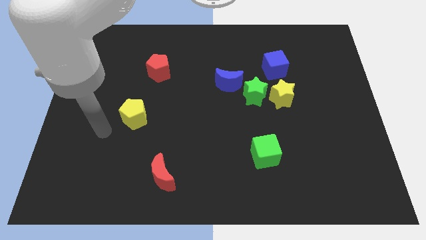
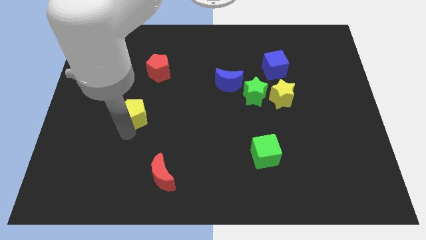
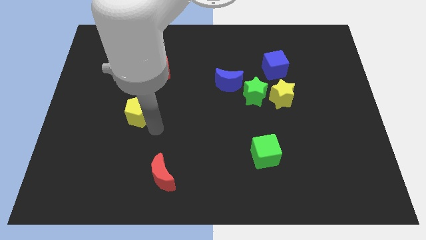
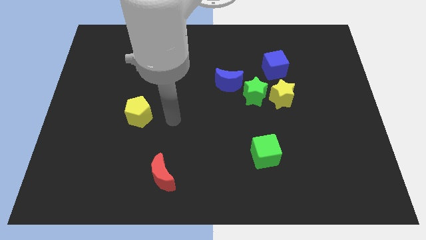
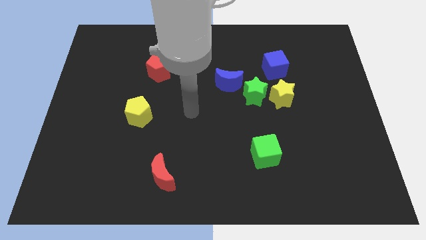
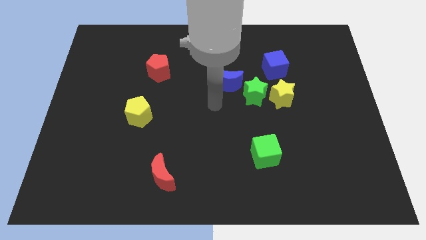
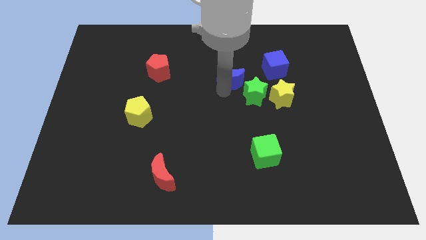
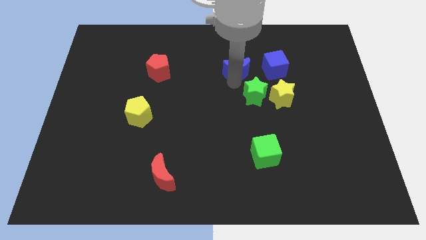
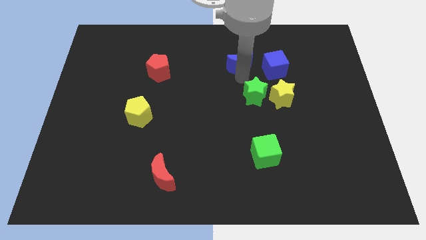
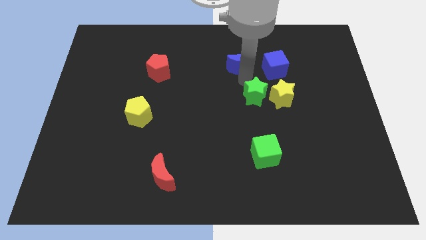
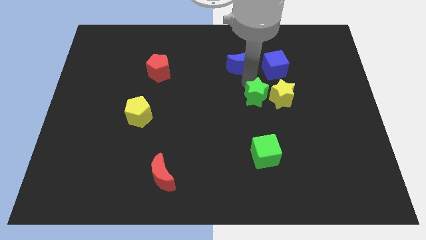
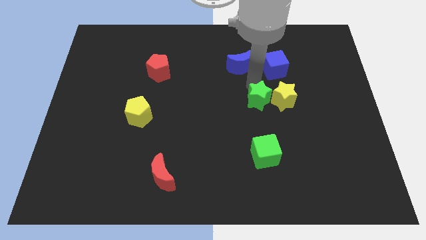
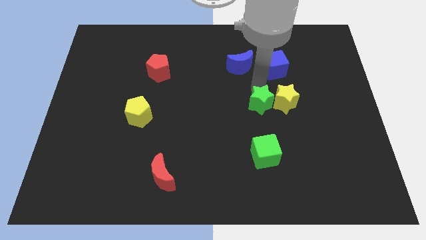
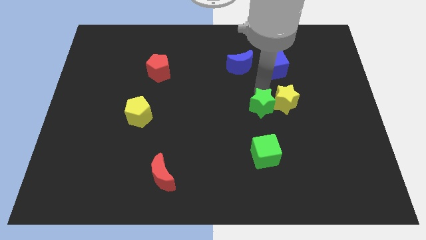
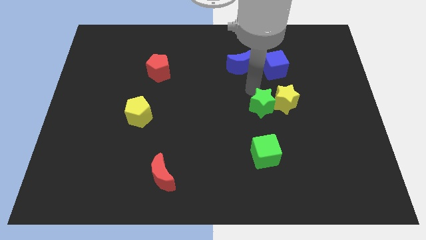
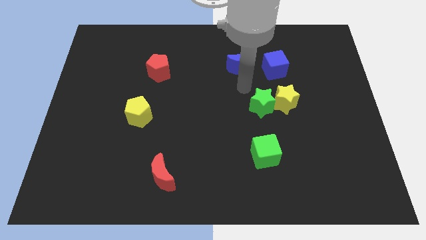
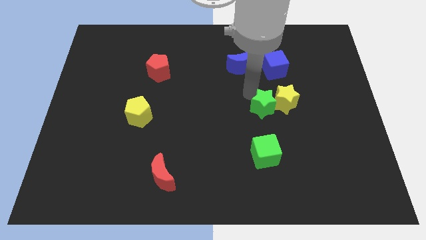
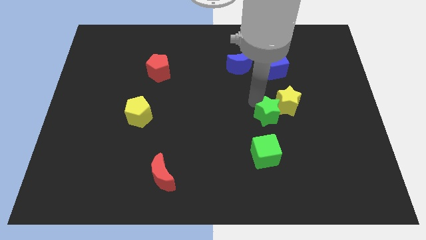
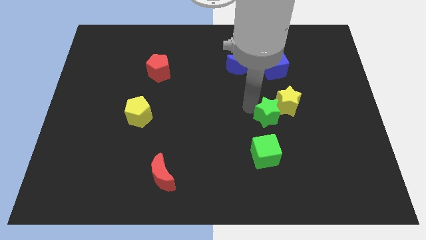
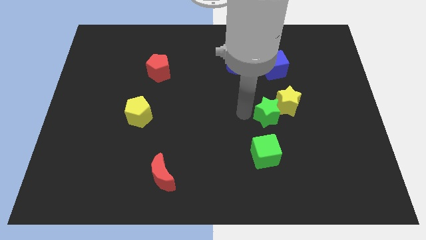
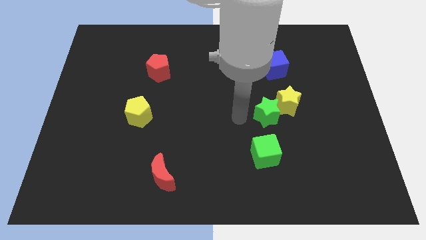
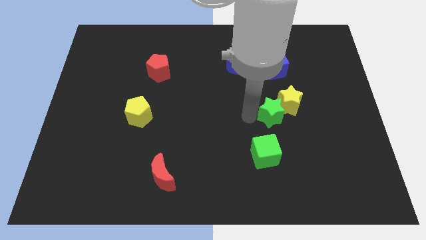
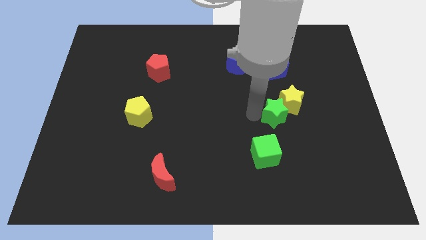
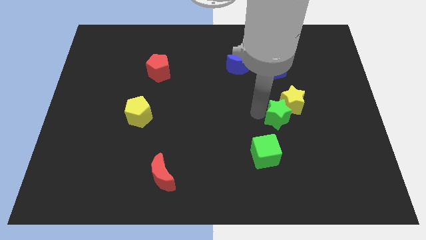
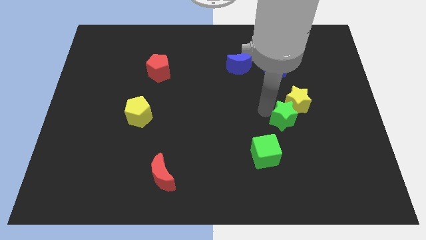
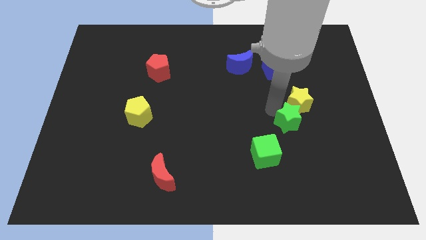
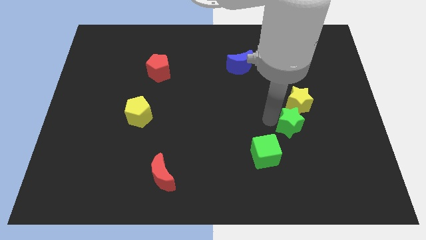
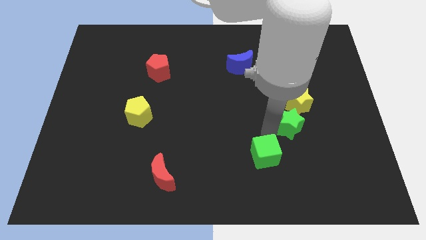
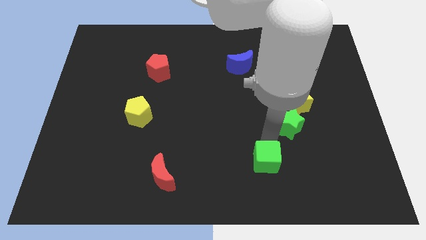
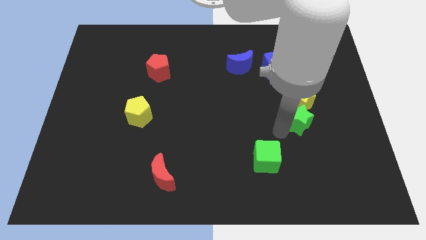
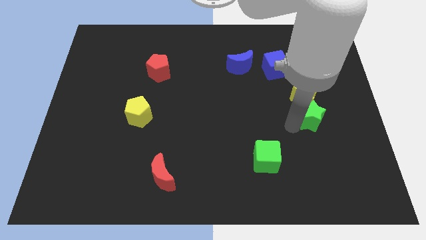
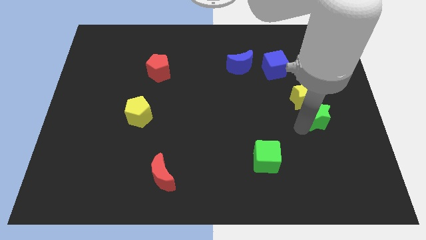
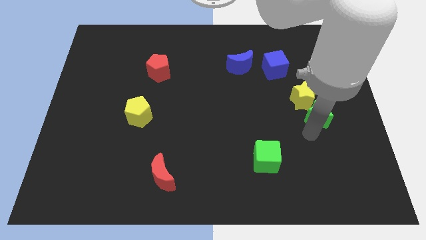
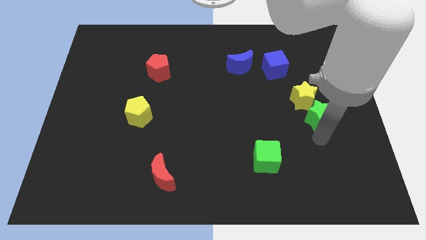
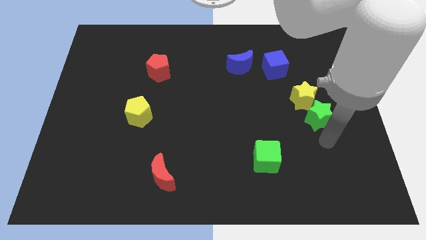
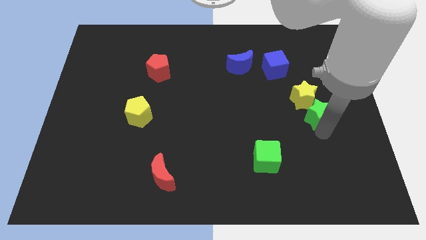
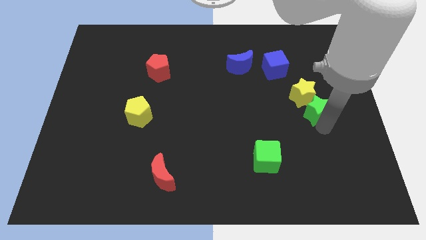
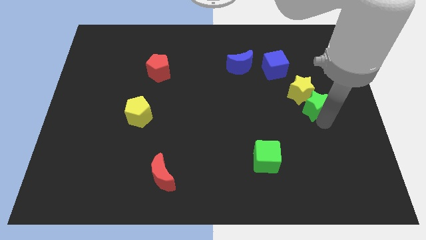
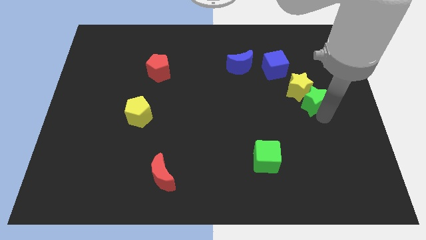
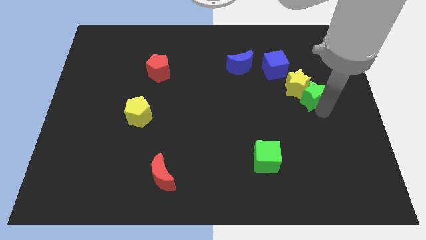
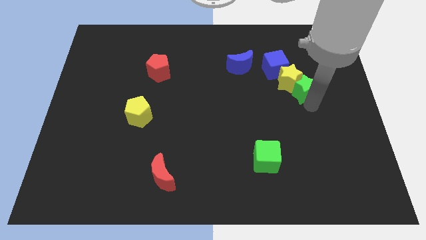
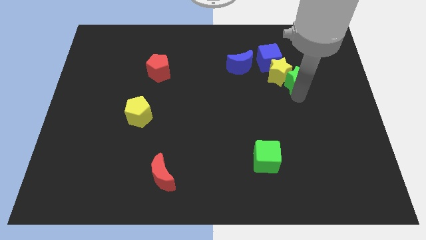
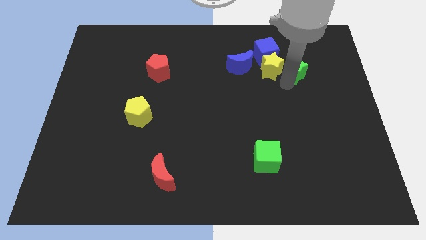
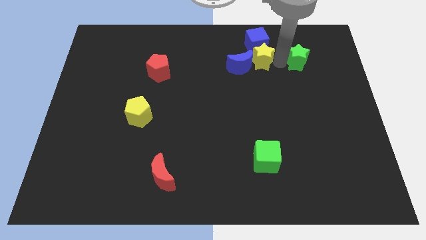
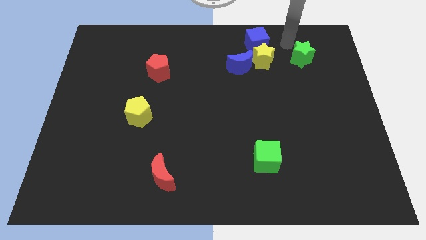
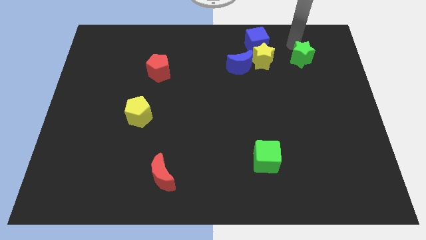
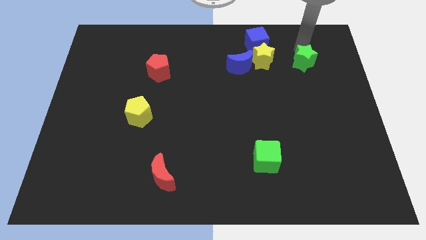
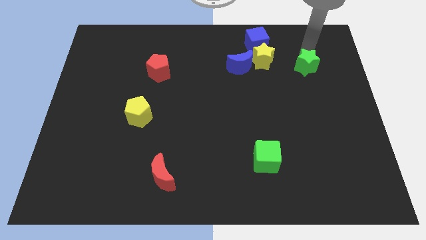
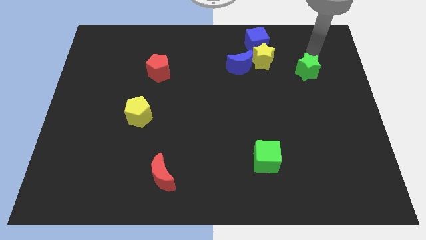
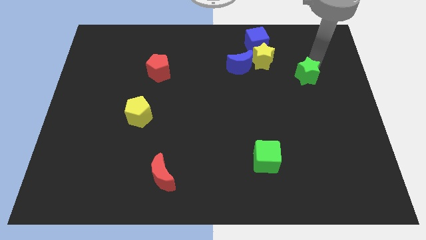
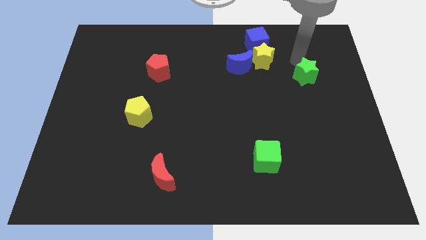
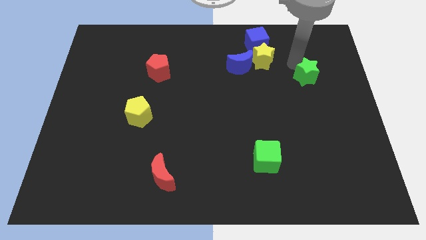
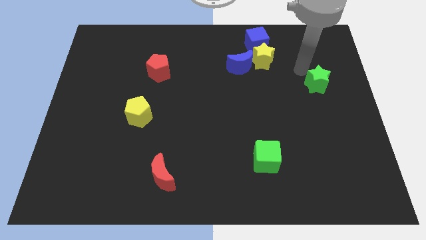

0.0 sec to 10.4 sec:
slide the green star to the right side of the board
